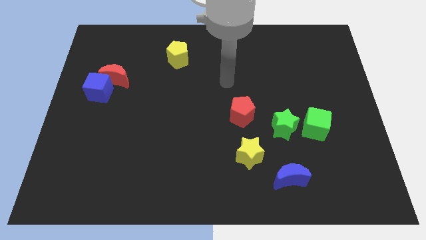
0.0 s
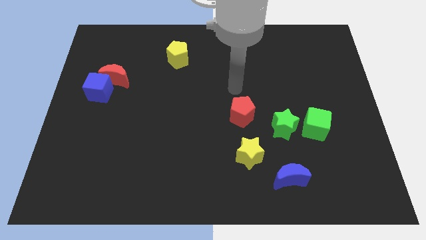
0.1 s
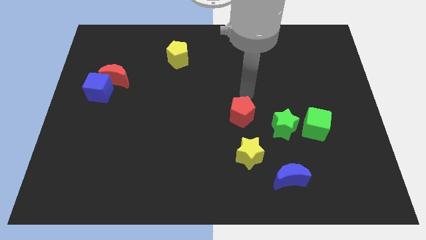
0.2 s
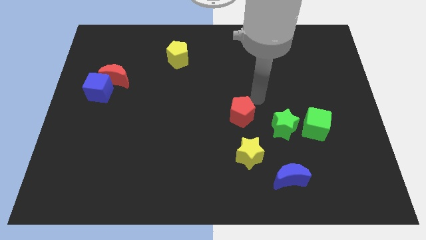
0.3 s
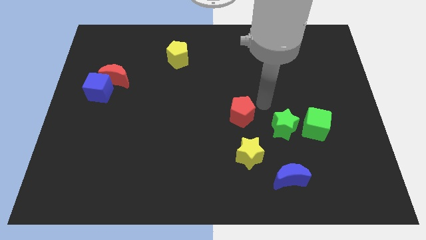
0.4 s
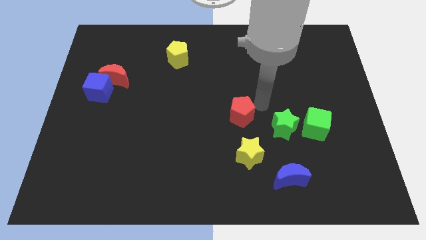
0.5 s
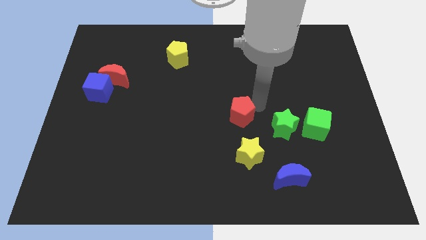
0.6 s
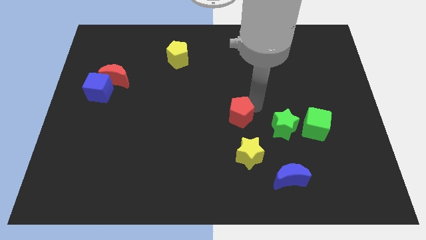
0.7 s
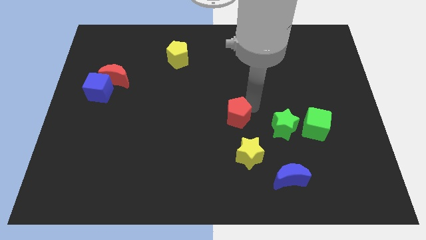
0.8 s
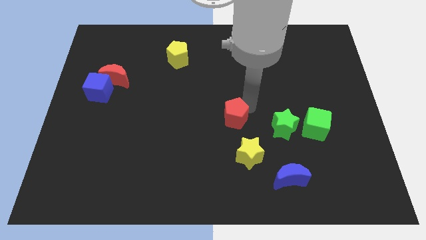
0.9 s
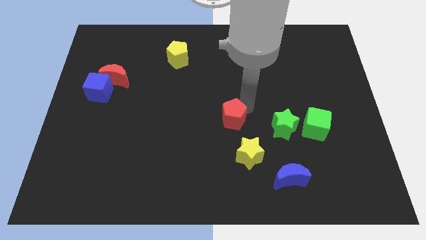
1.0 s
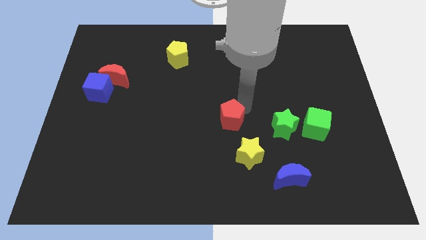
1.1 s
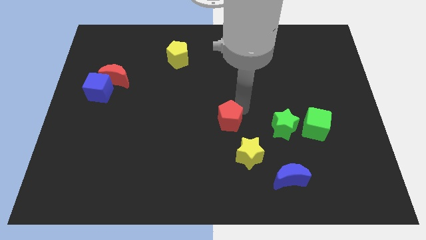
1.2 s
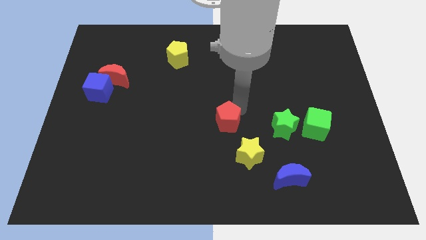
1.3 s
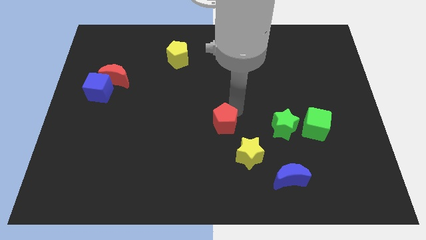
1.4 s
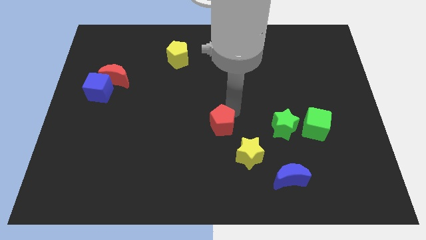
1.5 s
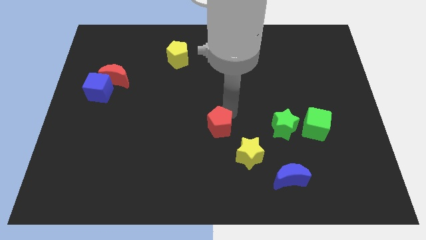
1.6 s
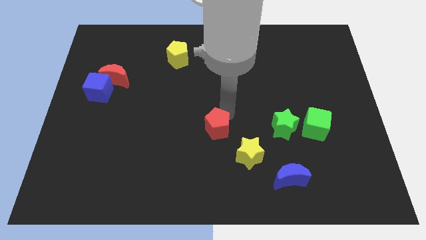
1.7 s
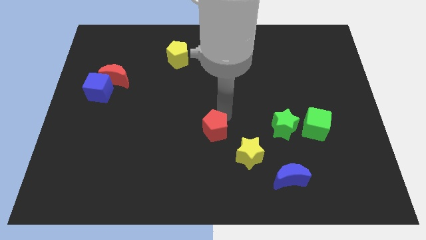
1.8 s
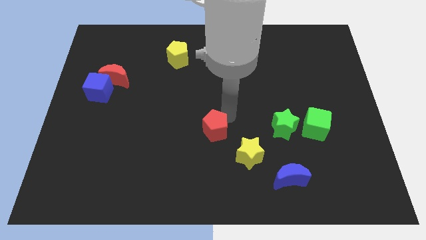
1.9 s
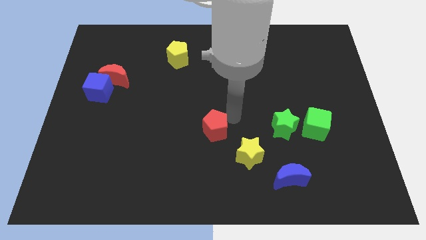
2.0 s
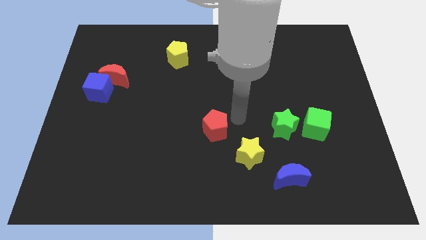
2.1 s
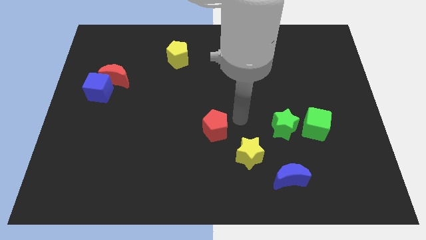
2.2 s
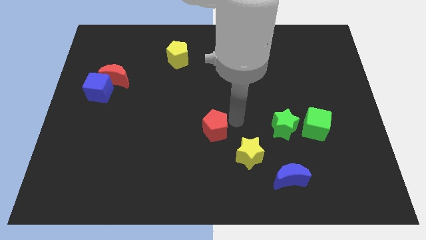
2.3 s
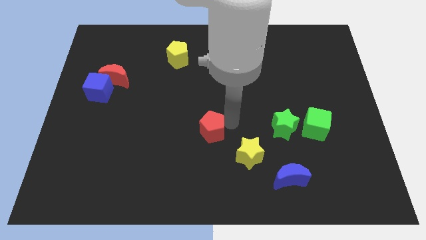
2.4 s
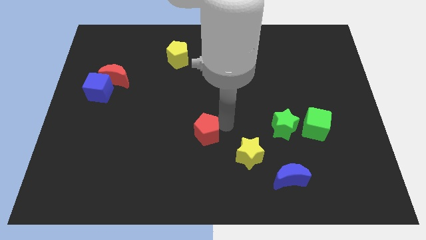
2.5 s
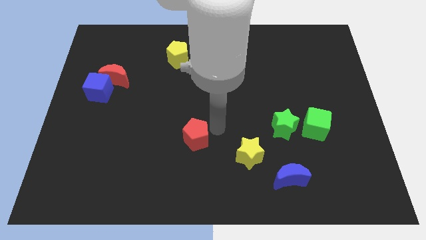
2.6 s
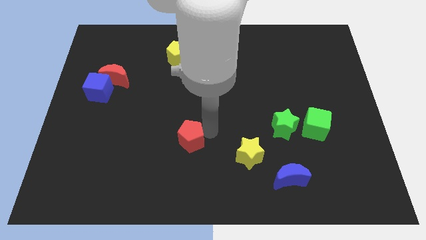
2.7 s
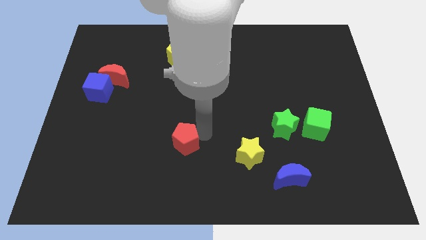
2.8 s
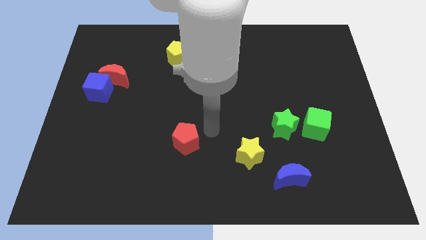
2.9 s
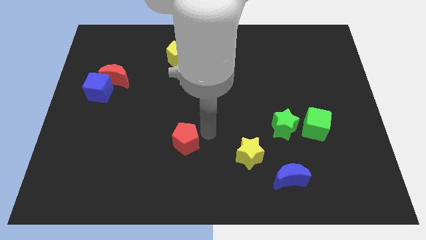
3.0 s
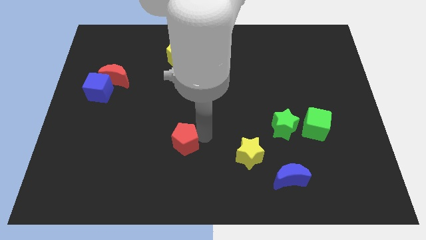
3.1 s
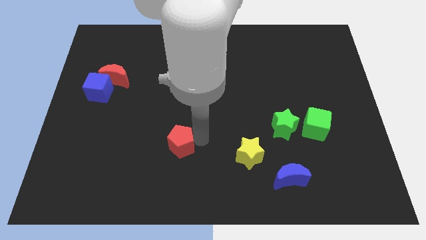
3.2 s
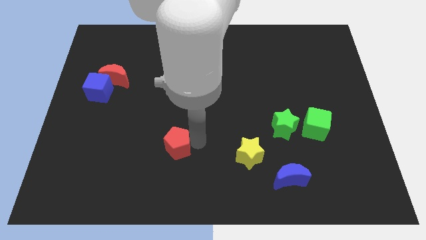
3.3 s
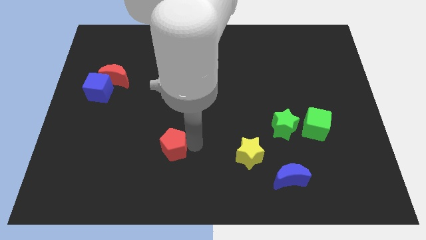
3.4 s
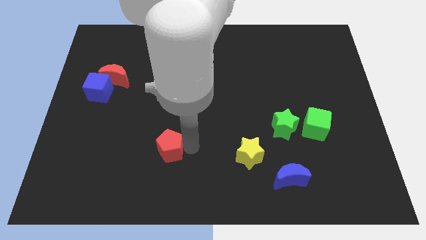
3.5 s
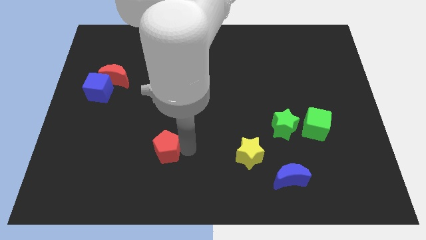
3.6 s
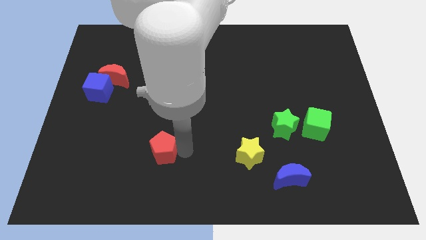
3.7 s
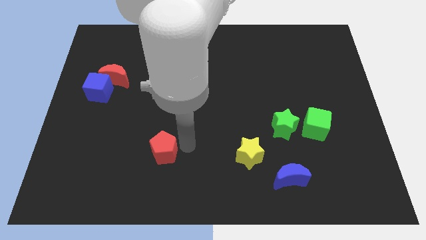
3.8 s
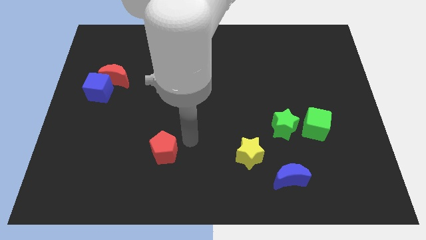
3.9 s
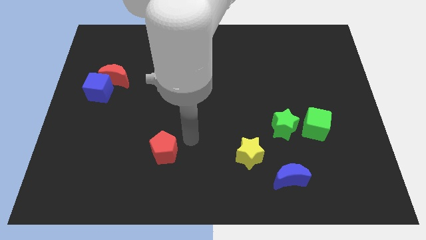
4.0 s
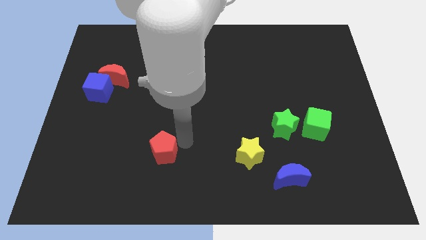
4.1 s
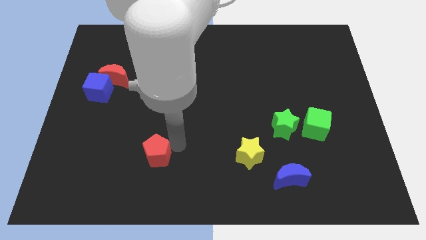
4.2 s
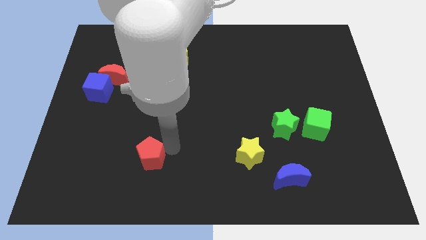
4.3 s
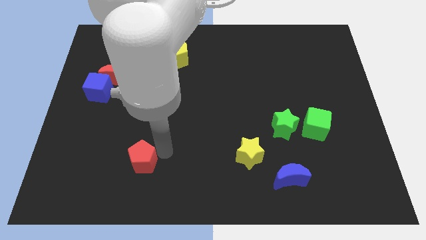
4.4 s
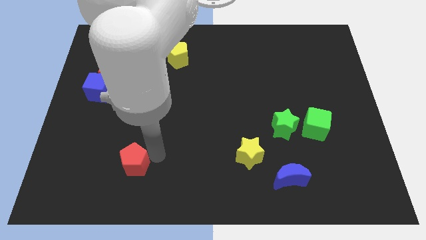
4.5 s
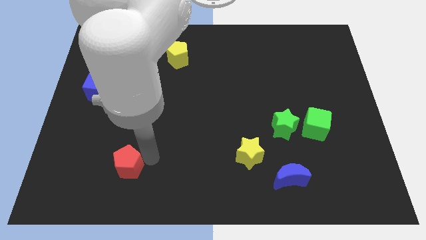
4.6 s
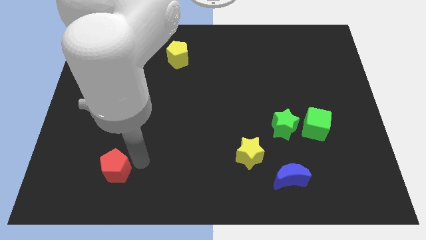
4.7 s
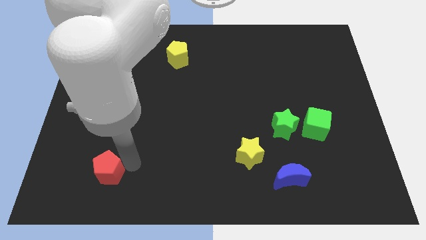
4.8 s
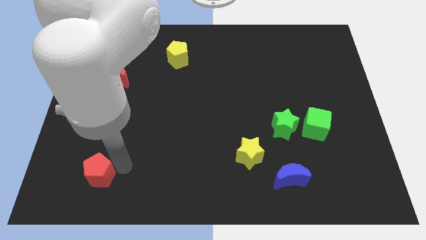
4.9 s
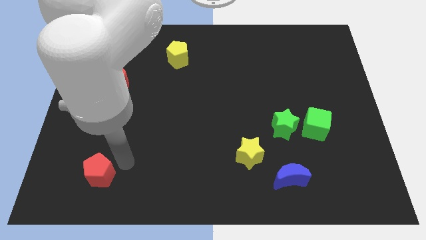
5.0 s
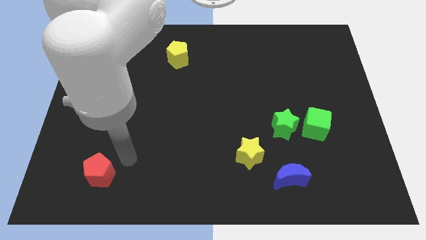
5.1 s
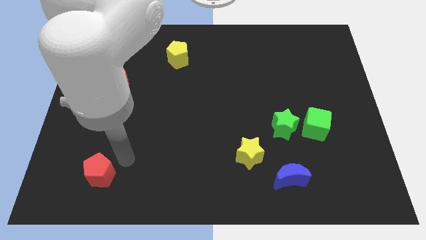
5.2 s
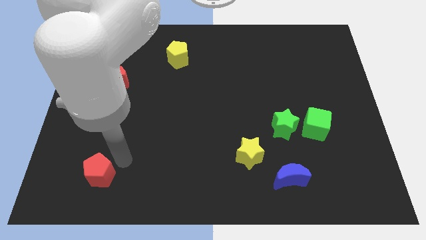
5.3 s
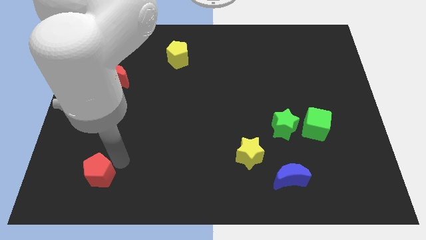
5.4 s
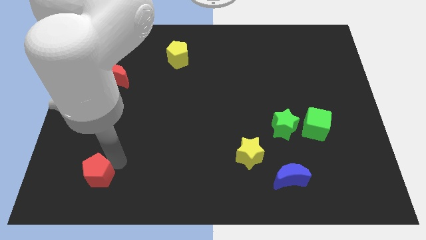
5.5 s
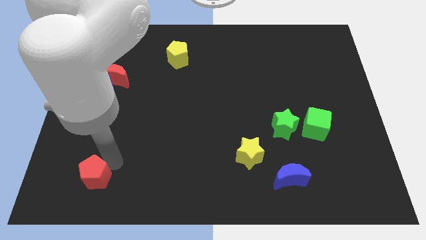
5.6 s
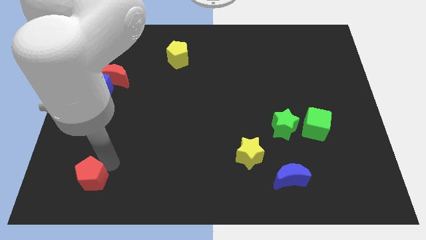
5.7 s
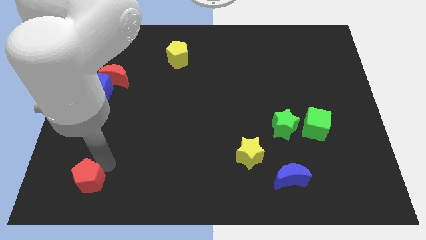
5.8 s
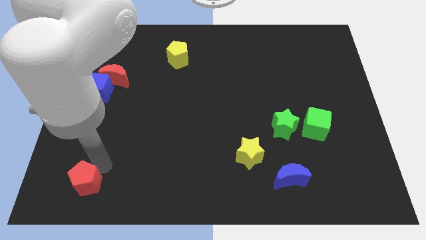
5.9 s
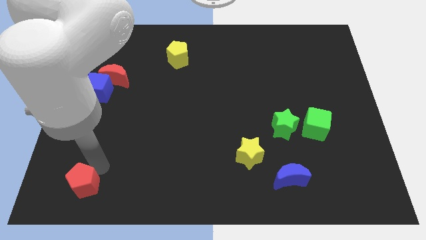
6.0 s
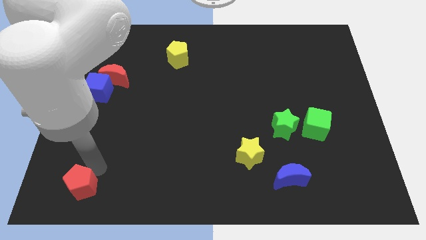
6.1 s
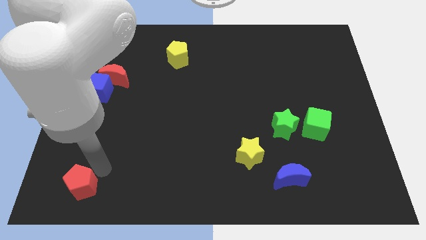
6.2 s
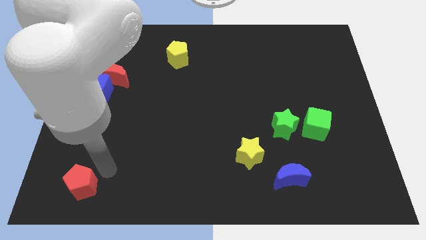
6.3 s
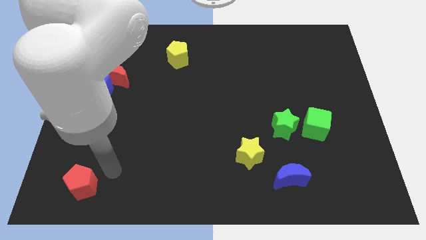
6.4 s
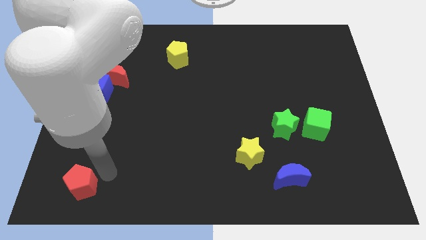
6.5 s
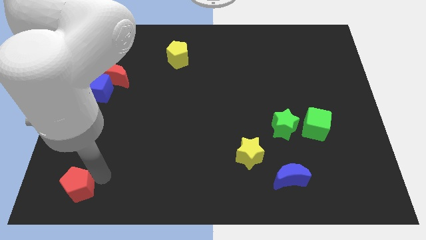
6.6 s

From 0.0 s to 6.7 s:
put the red pentagon to the bottom left corner
